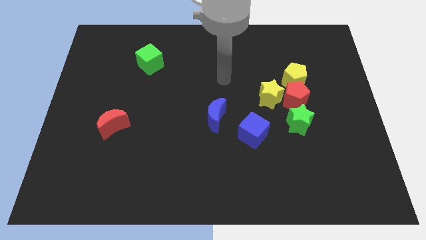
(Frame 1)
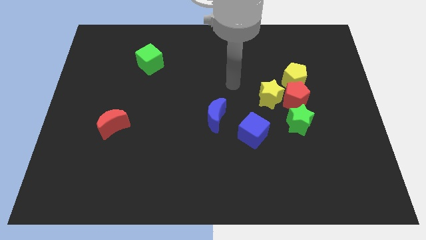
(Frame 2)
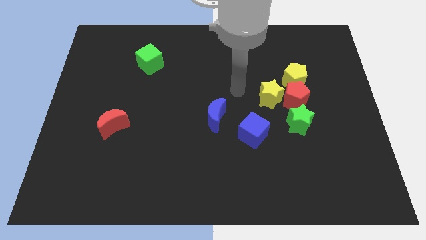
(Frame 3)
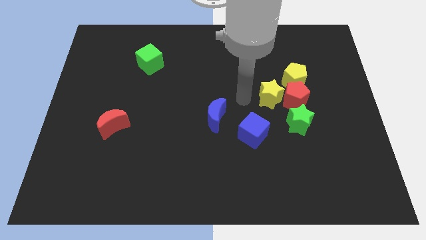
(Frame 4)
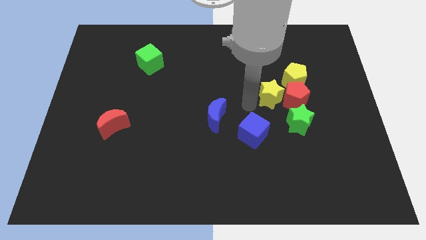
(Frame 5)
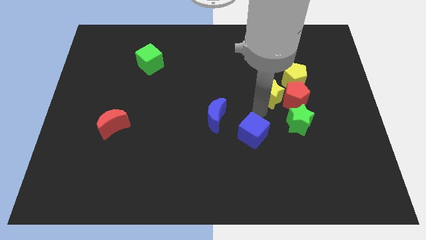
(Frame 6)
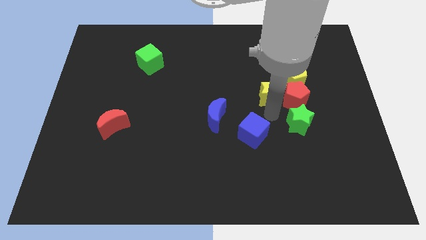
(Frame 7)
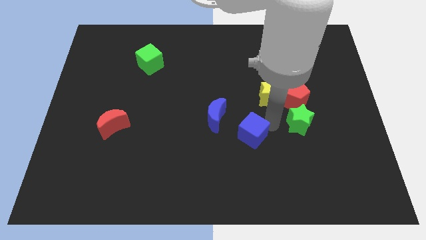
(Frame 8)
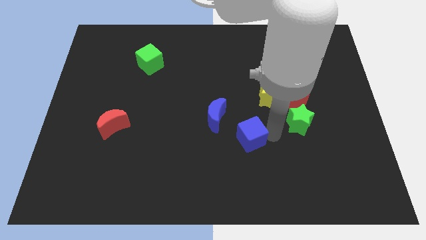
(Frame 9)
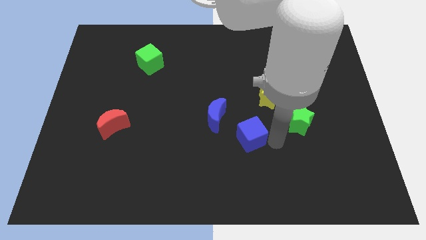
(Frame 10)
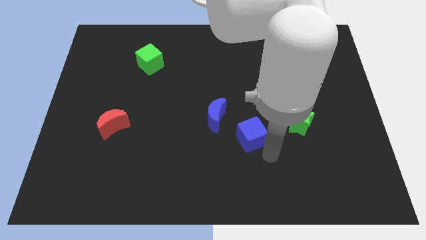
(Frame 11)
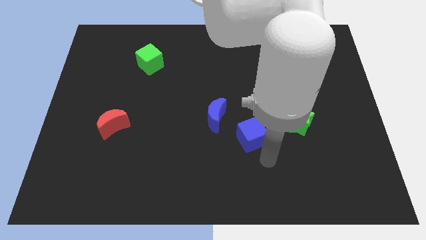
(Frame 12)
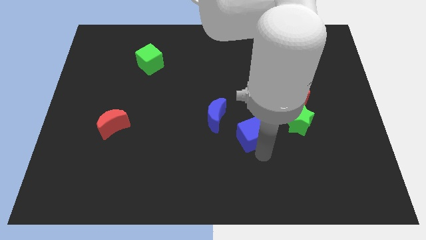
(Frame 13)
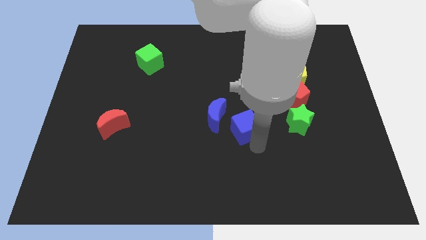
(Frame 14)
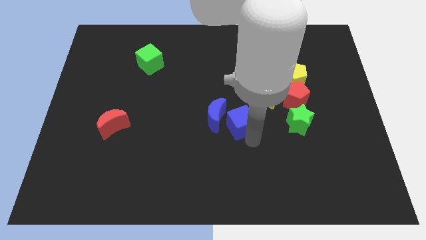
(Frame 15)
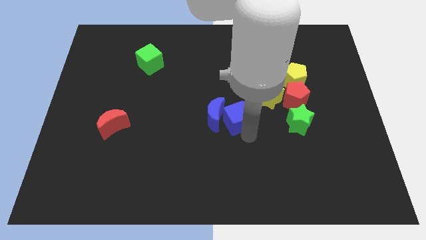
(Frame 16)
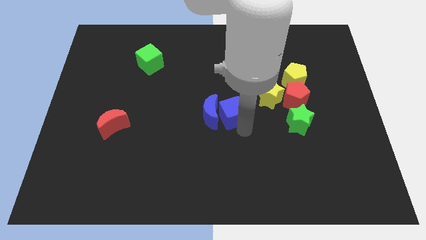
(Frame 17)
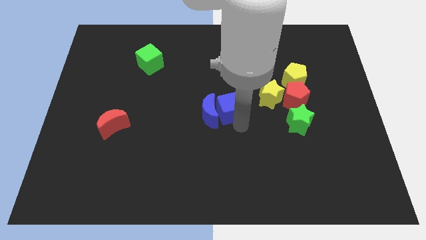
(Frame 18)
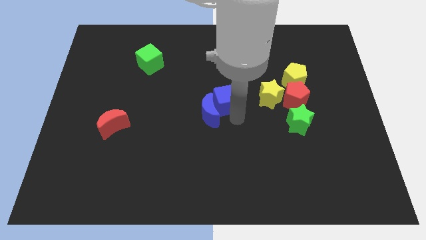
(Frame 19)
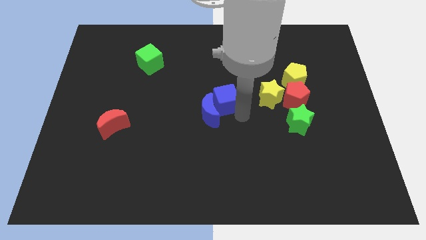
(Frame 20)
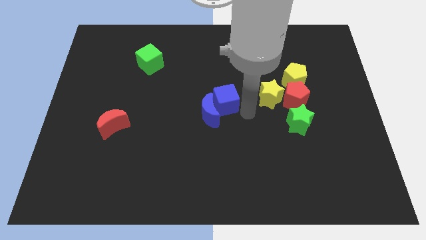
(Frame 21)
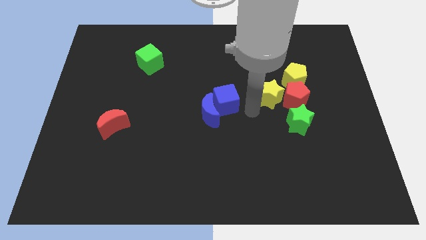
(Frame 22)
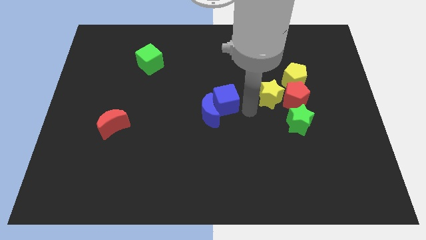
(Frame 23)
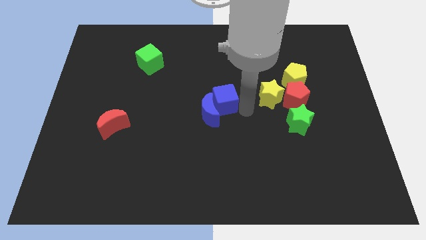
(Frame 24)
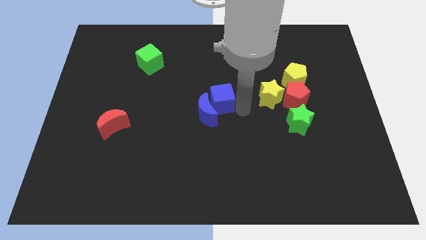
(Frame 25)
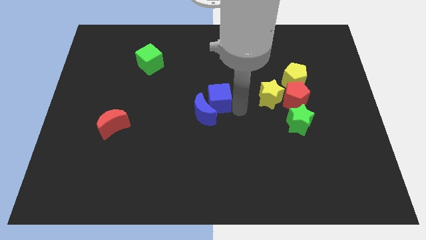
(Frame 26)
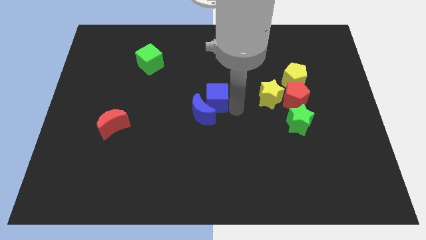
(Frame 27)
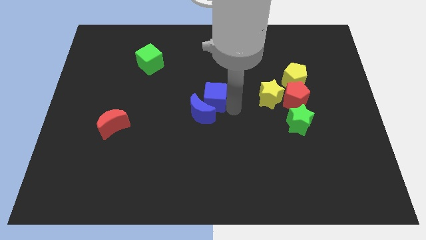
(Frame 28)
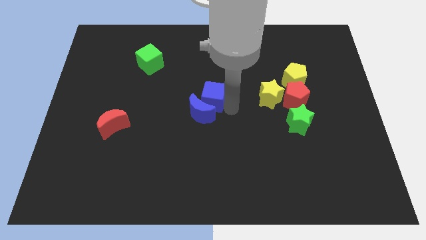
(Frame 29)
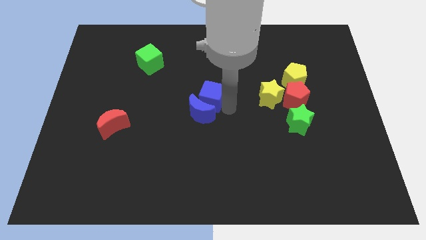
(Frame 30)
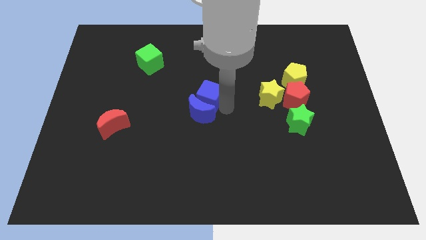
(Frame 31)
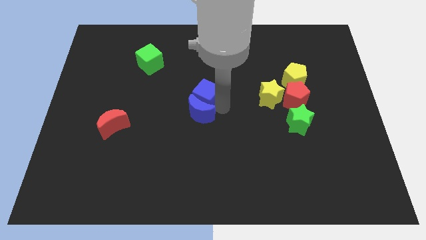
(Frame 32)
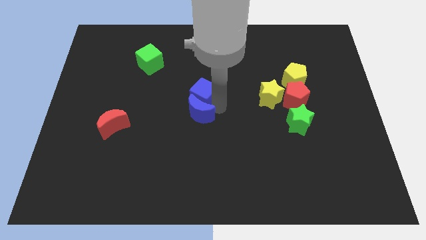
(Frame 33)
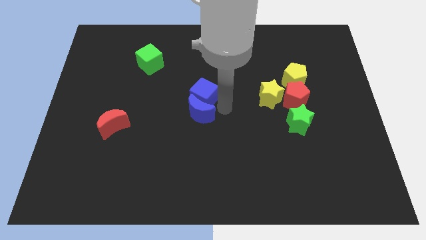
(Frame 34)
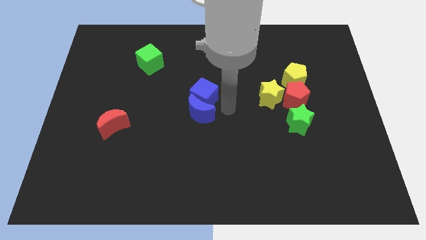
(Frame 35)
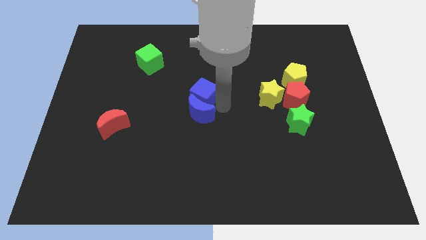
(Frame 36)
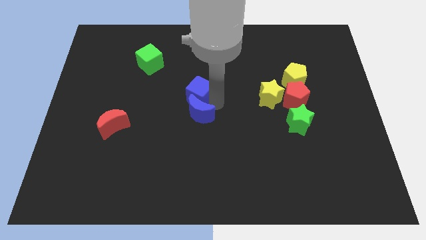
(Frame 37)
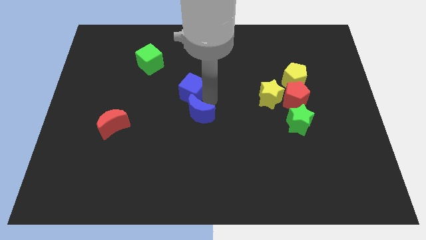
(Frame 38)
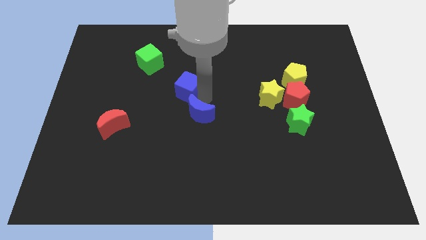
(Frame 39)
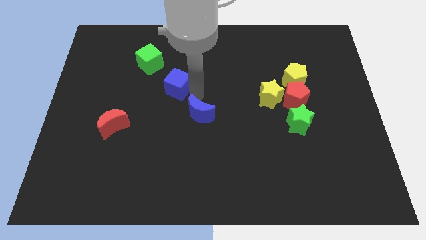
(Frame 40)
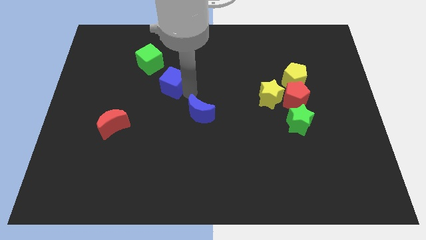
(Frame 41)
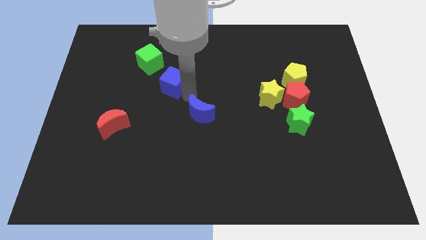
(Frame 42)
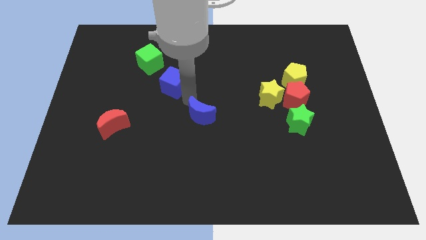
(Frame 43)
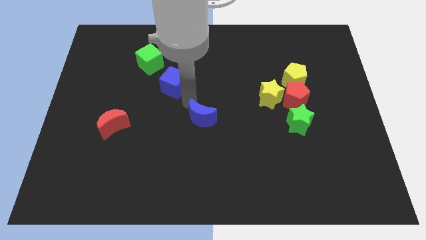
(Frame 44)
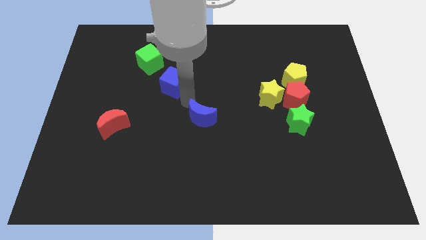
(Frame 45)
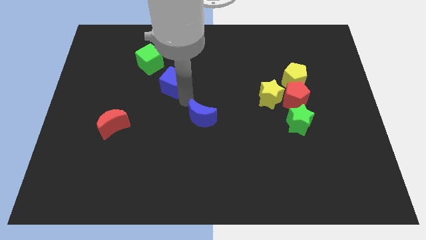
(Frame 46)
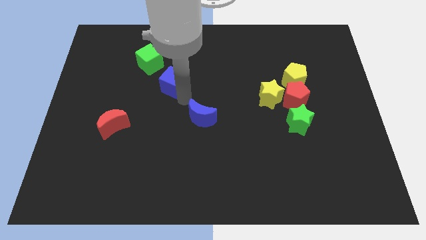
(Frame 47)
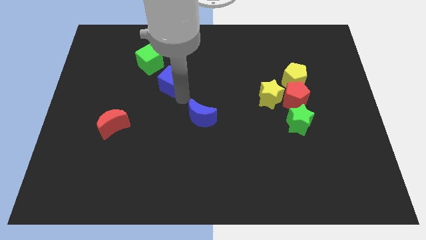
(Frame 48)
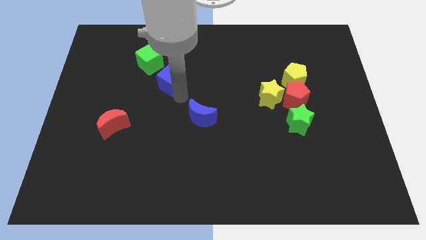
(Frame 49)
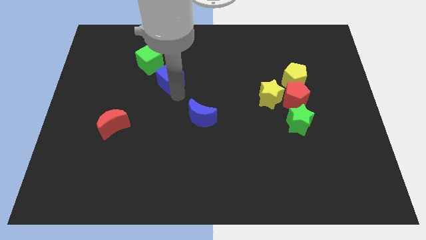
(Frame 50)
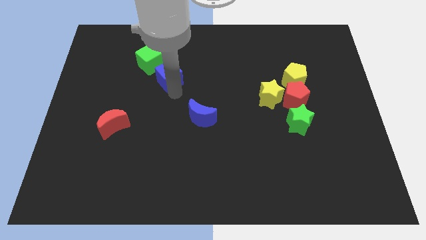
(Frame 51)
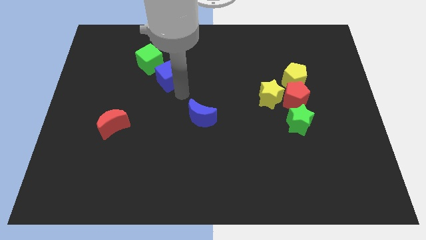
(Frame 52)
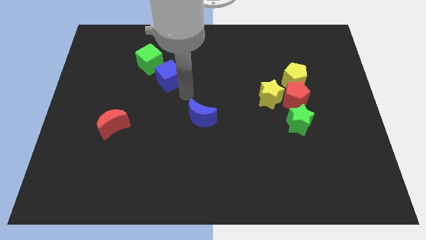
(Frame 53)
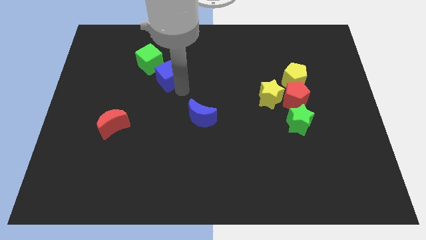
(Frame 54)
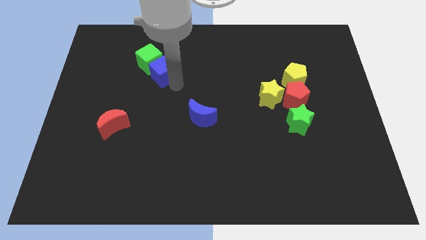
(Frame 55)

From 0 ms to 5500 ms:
slide the blue cube next to the green cube

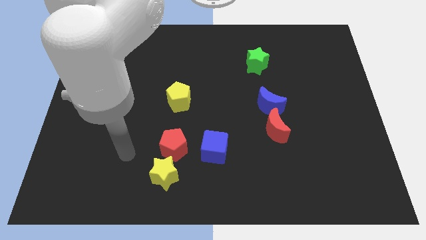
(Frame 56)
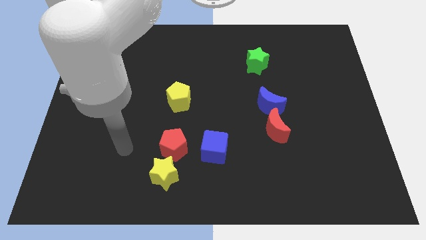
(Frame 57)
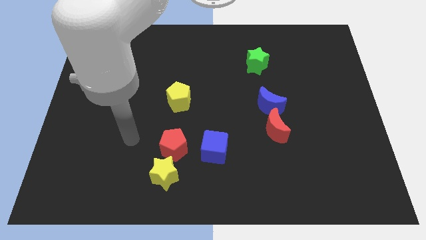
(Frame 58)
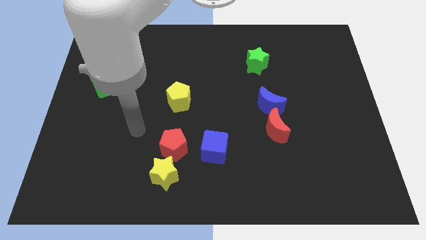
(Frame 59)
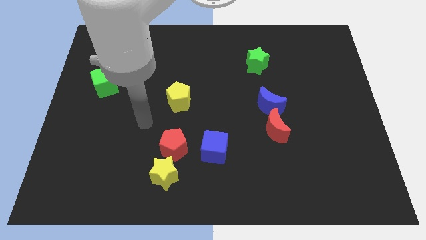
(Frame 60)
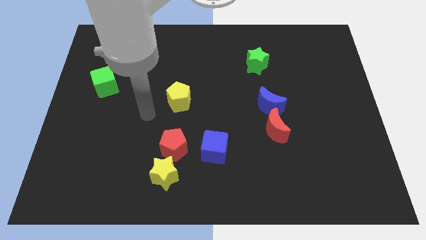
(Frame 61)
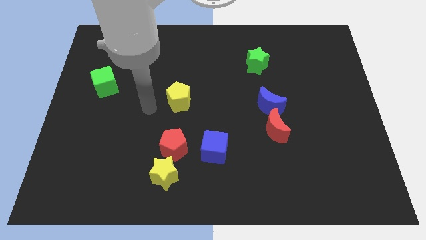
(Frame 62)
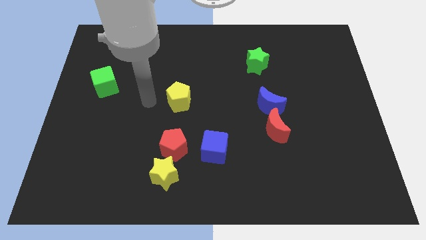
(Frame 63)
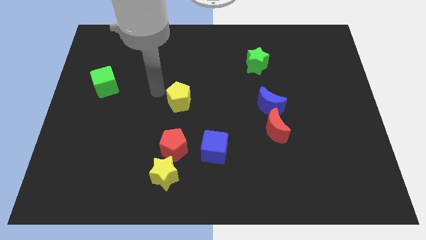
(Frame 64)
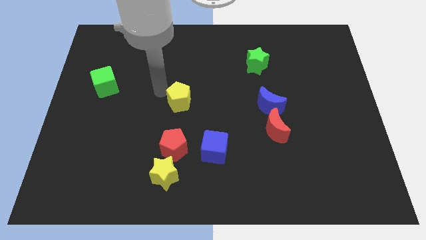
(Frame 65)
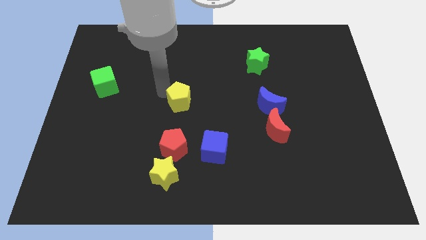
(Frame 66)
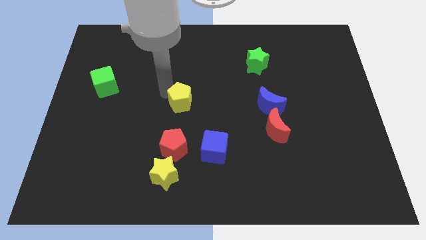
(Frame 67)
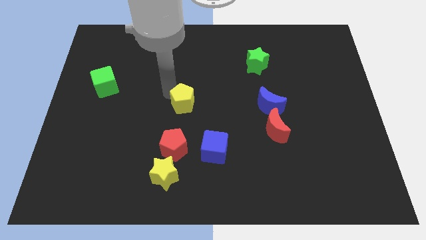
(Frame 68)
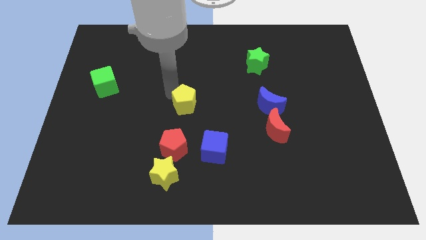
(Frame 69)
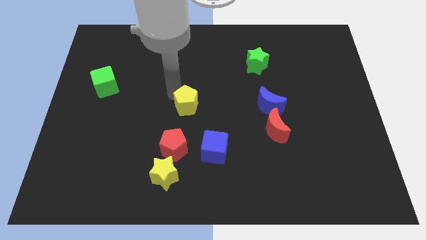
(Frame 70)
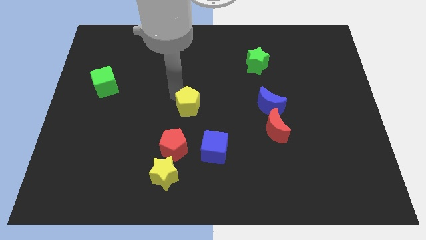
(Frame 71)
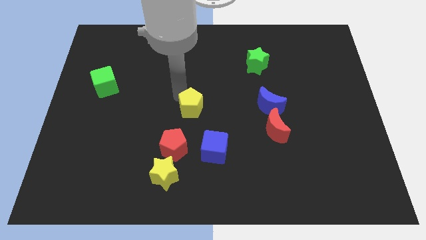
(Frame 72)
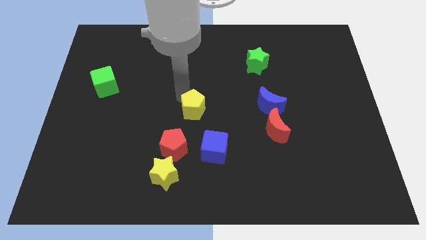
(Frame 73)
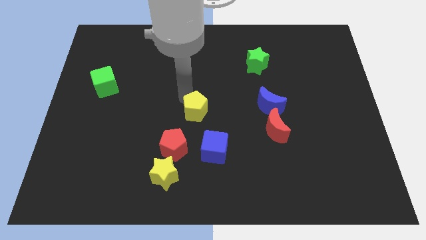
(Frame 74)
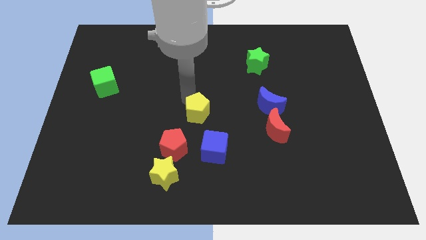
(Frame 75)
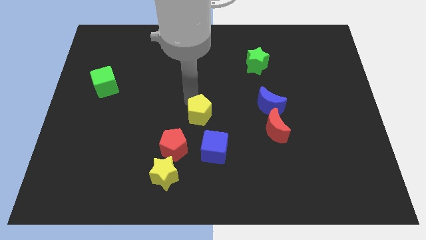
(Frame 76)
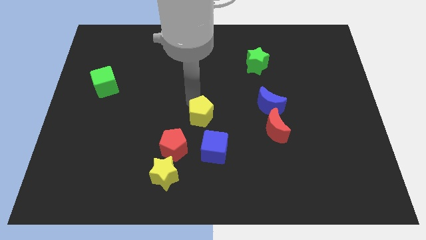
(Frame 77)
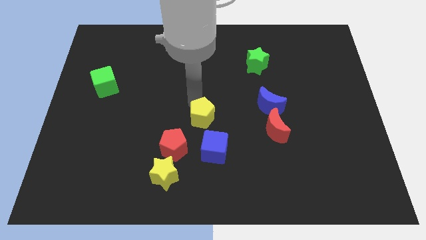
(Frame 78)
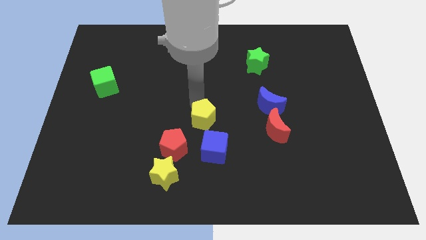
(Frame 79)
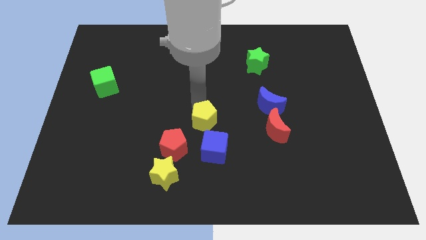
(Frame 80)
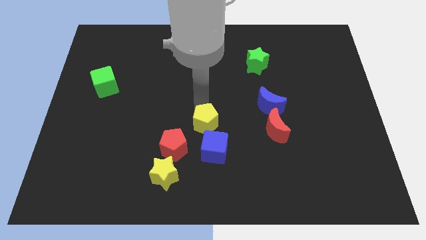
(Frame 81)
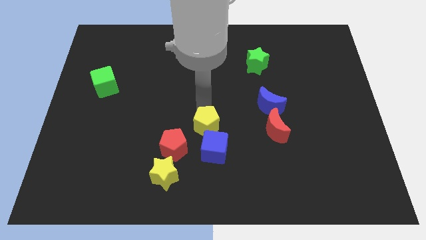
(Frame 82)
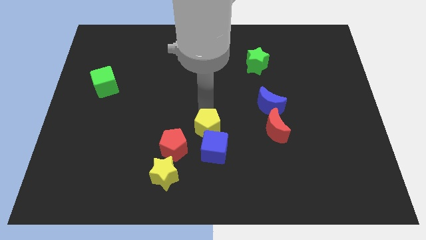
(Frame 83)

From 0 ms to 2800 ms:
move the yellow pentagon towards the blue cube
